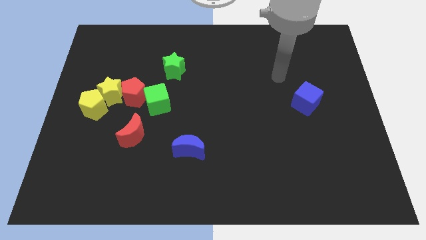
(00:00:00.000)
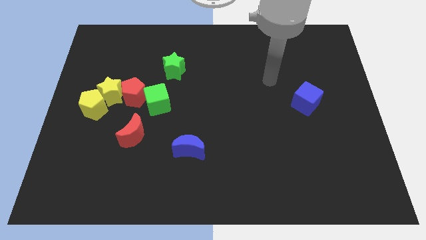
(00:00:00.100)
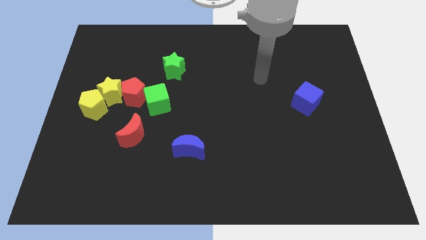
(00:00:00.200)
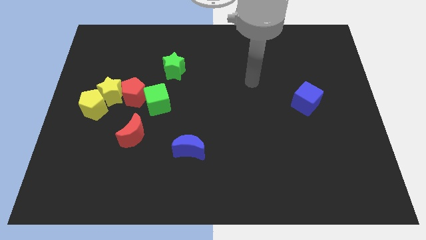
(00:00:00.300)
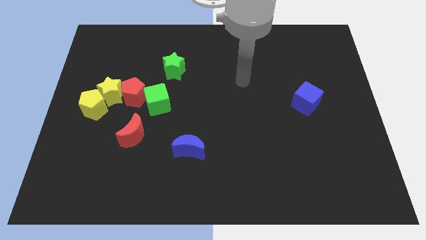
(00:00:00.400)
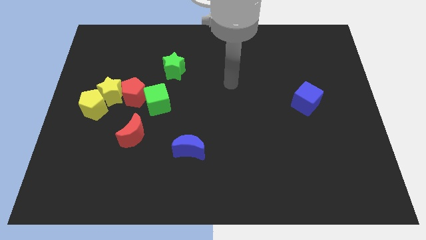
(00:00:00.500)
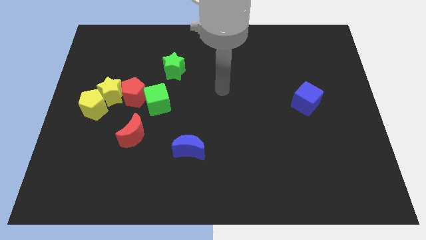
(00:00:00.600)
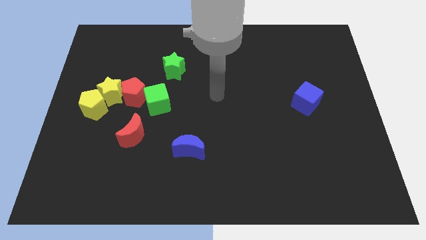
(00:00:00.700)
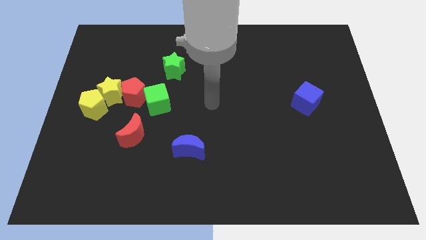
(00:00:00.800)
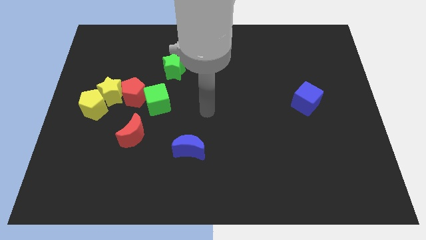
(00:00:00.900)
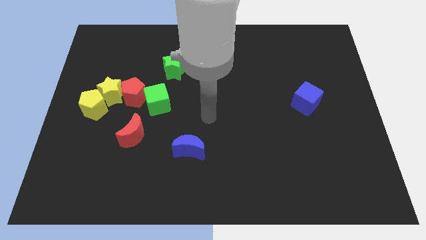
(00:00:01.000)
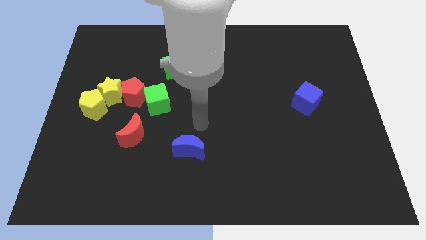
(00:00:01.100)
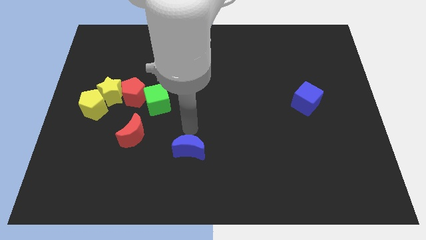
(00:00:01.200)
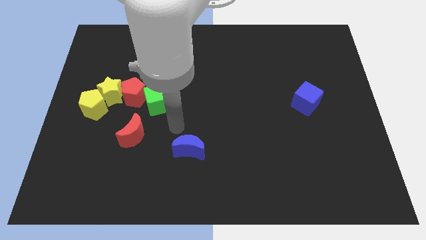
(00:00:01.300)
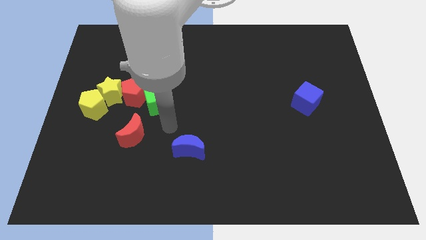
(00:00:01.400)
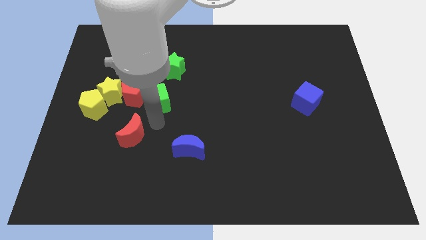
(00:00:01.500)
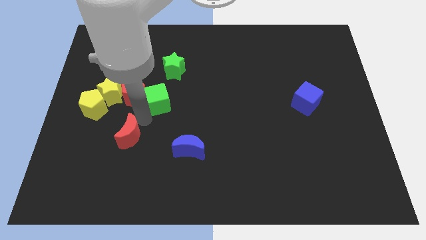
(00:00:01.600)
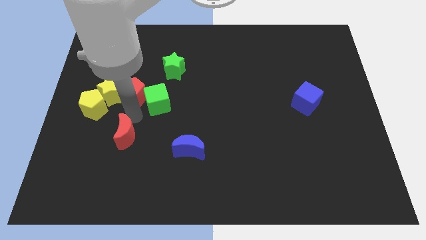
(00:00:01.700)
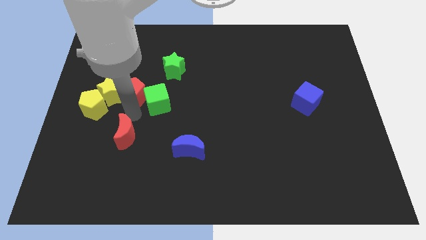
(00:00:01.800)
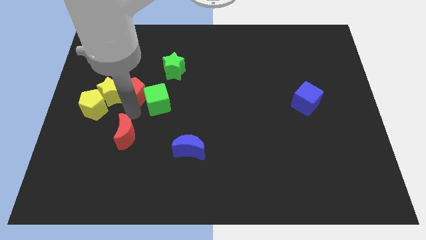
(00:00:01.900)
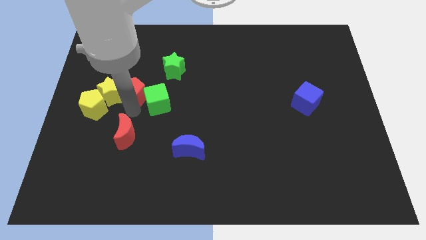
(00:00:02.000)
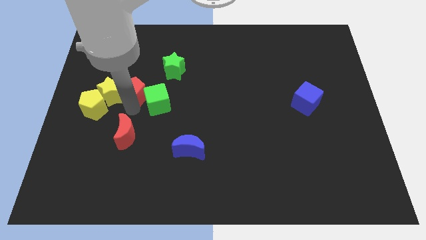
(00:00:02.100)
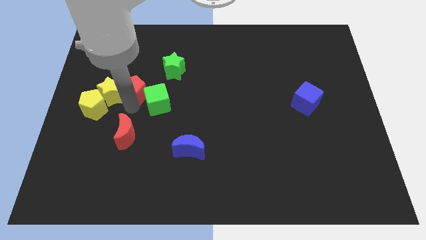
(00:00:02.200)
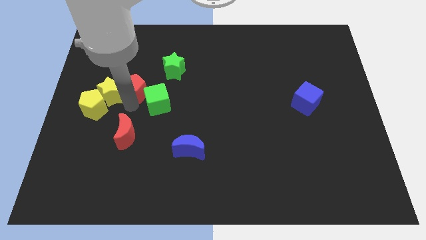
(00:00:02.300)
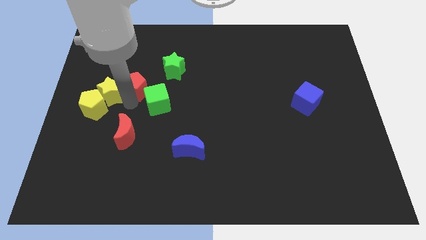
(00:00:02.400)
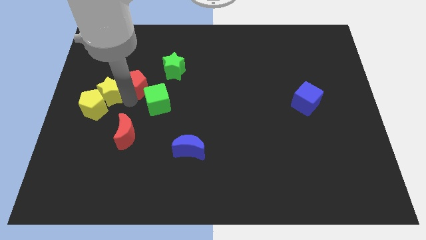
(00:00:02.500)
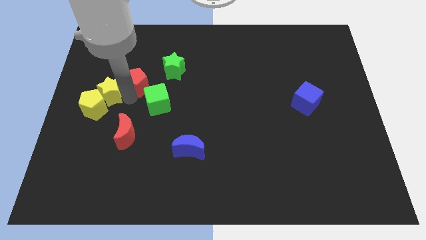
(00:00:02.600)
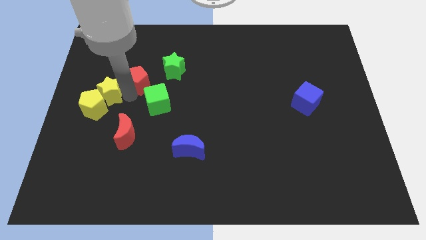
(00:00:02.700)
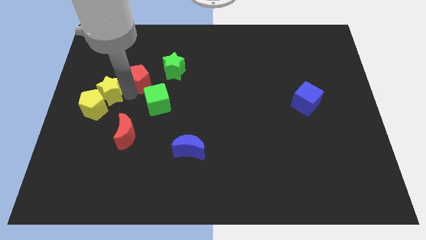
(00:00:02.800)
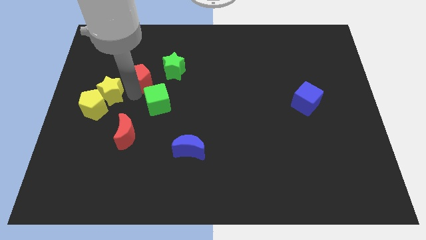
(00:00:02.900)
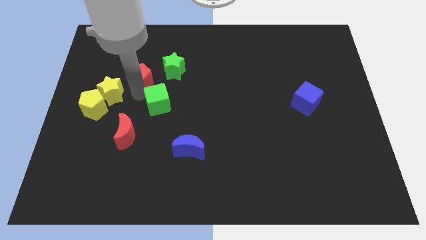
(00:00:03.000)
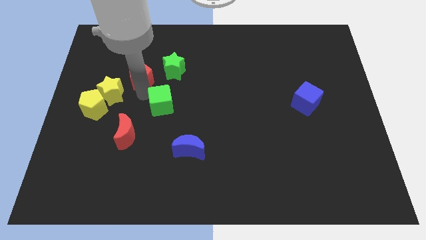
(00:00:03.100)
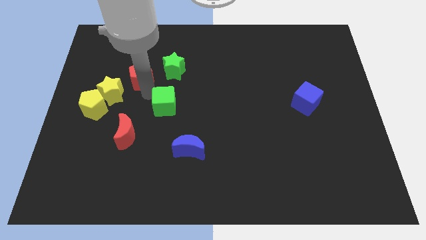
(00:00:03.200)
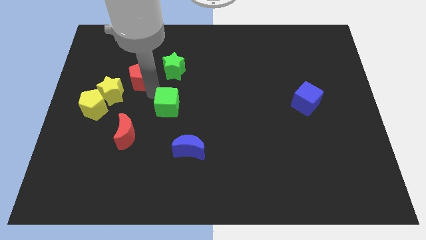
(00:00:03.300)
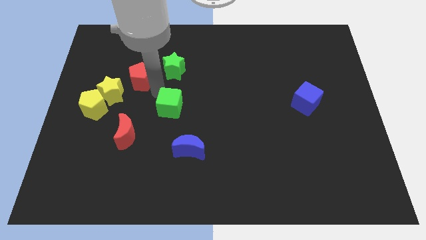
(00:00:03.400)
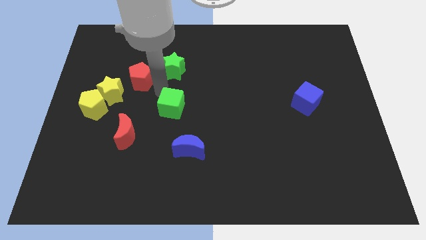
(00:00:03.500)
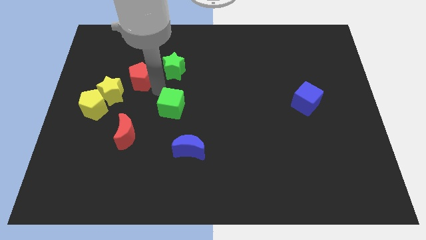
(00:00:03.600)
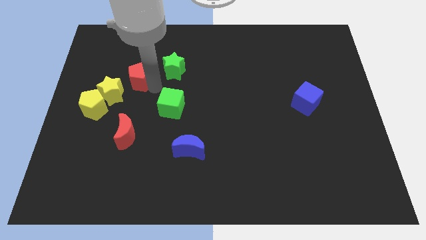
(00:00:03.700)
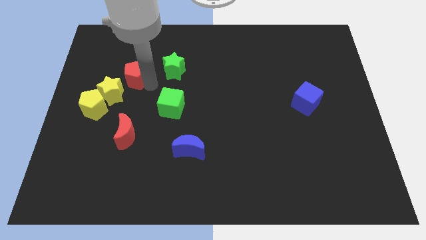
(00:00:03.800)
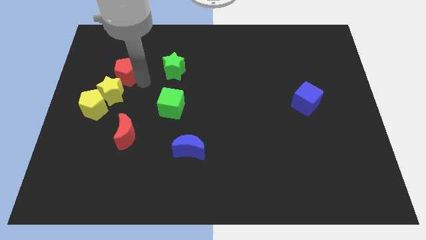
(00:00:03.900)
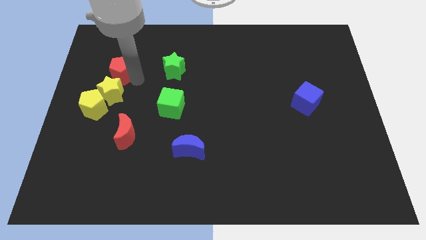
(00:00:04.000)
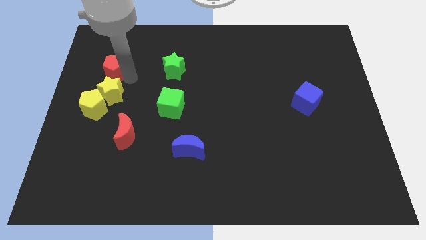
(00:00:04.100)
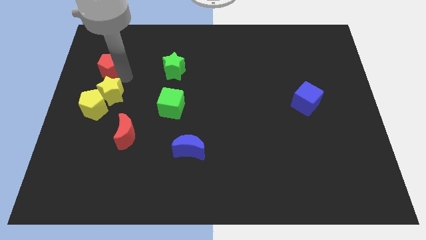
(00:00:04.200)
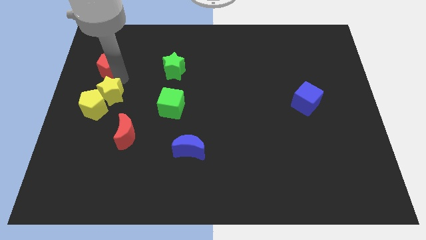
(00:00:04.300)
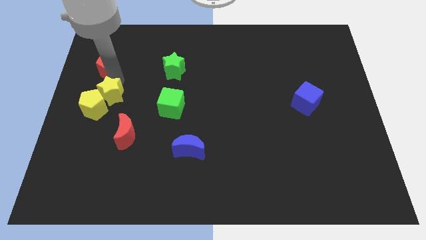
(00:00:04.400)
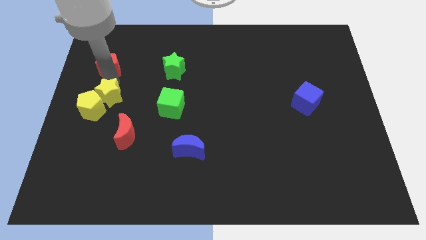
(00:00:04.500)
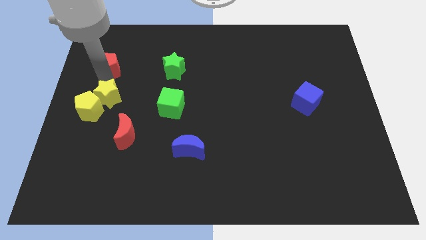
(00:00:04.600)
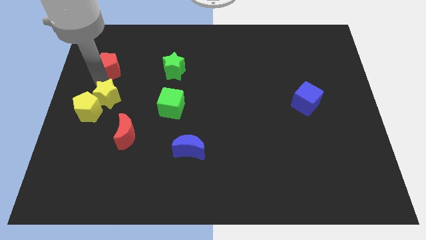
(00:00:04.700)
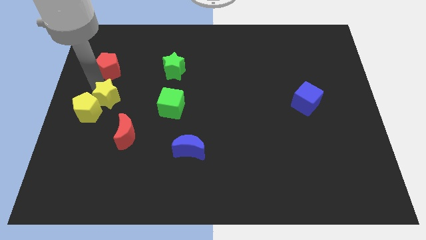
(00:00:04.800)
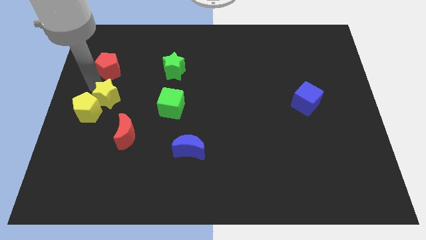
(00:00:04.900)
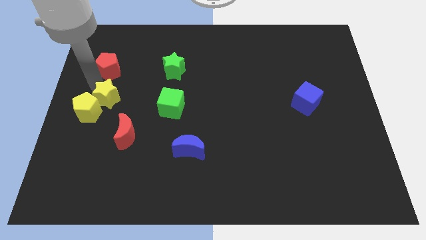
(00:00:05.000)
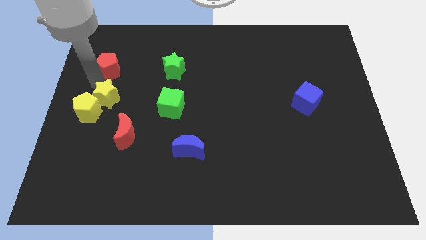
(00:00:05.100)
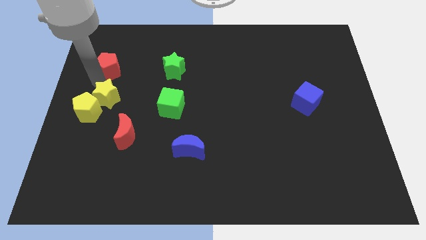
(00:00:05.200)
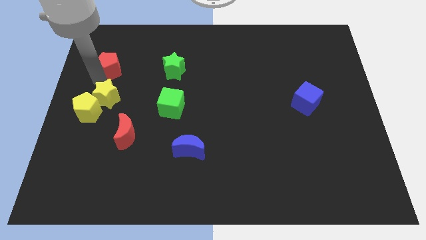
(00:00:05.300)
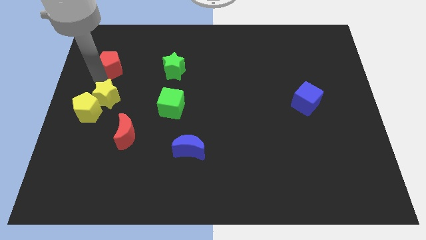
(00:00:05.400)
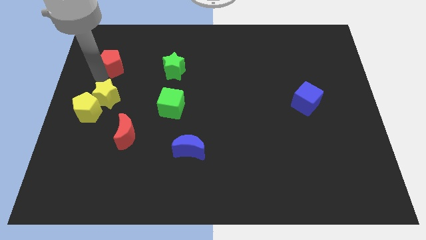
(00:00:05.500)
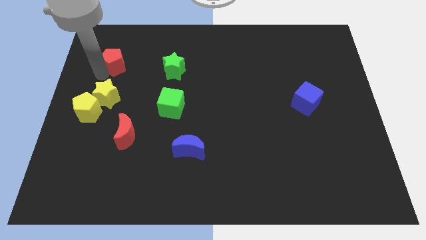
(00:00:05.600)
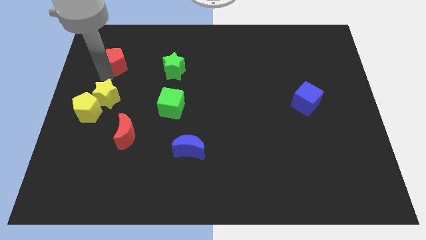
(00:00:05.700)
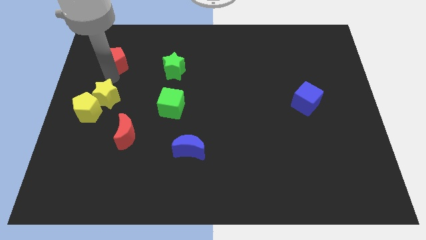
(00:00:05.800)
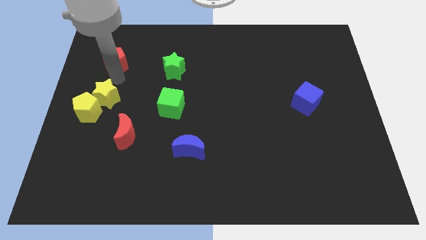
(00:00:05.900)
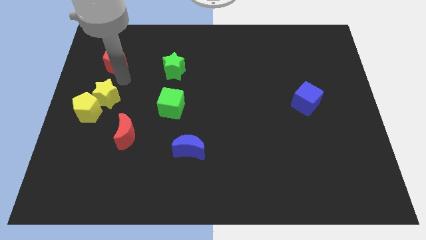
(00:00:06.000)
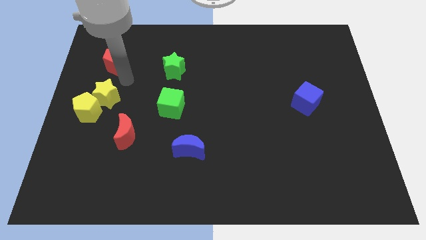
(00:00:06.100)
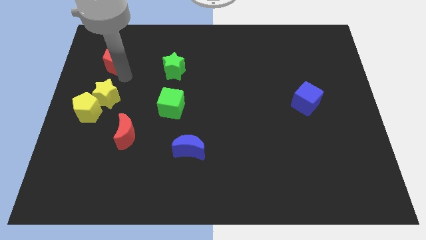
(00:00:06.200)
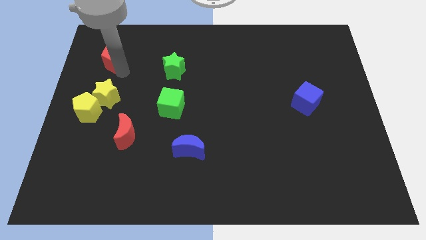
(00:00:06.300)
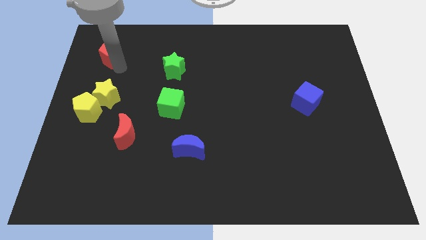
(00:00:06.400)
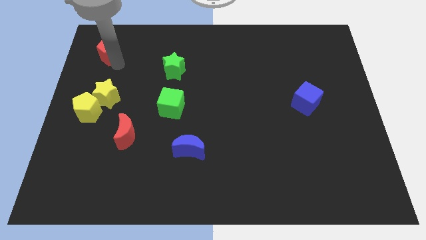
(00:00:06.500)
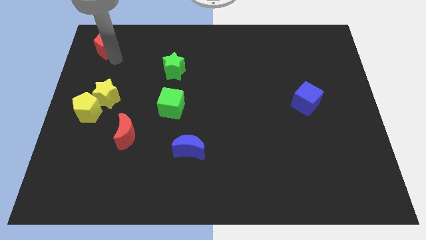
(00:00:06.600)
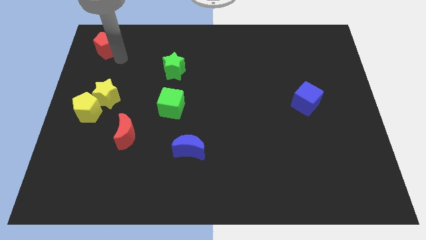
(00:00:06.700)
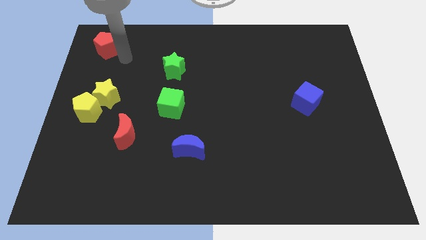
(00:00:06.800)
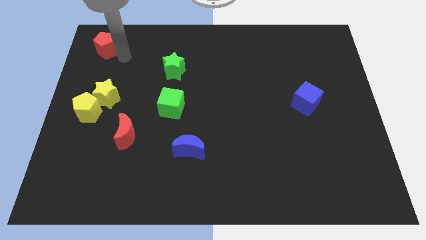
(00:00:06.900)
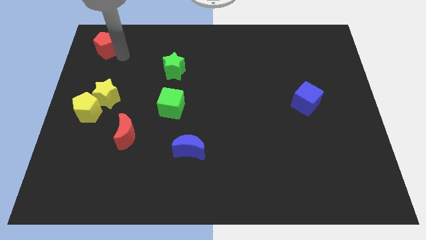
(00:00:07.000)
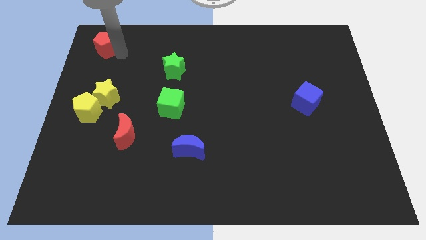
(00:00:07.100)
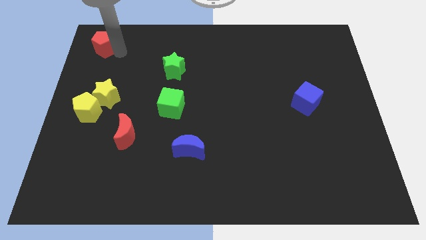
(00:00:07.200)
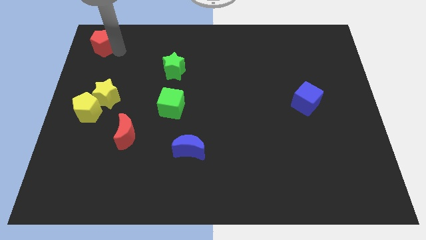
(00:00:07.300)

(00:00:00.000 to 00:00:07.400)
slide the red pentagon to the top left of the board
